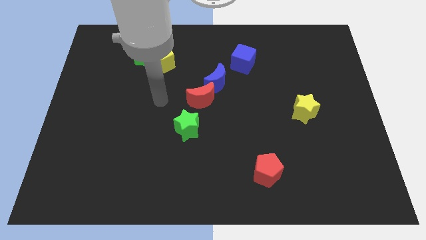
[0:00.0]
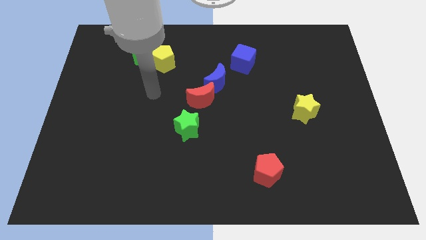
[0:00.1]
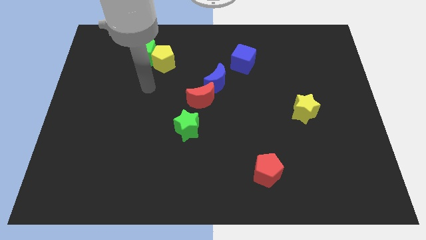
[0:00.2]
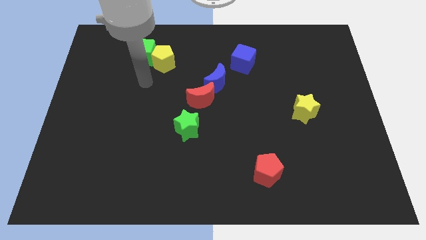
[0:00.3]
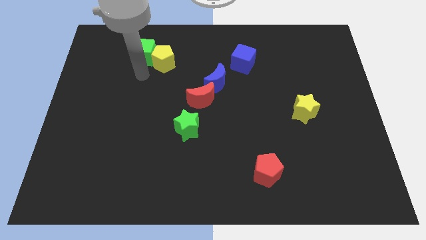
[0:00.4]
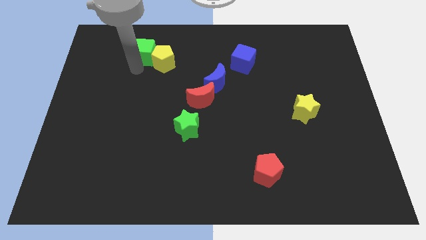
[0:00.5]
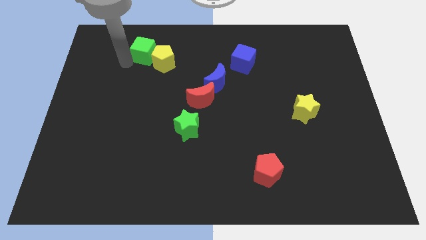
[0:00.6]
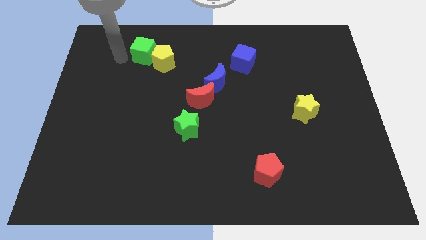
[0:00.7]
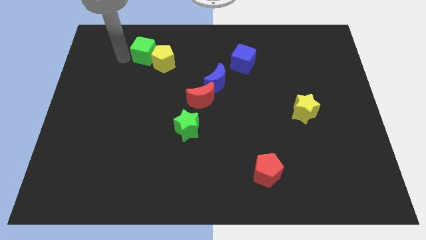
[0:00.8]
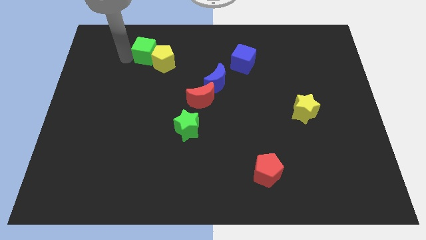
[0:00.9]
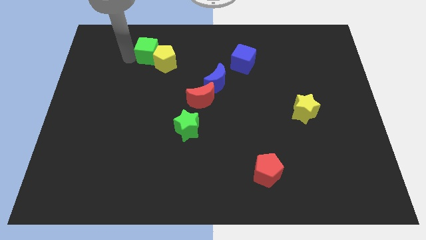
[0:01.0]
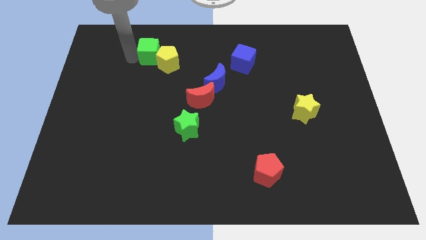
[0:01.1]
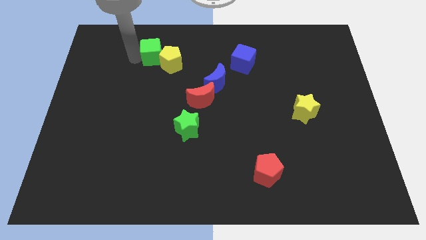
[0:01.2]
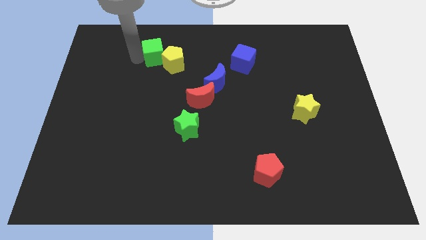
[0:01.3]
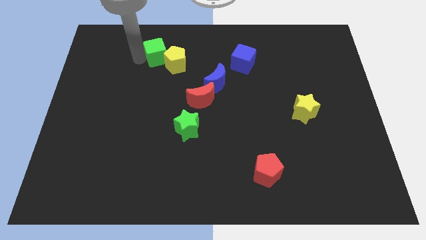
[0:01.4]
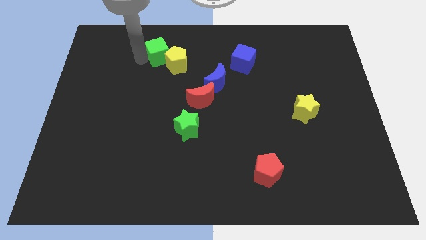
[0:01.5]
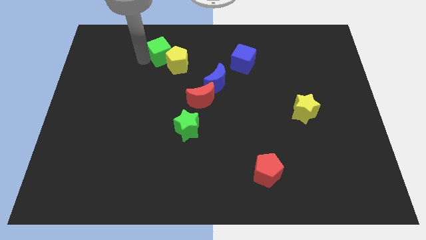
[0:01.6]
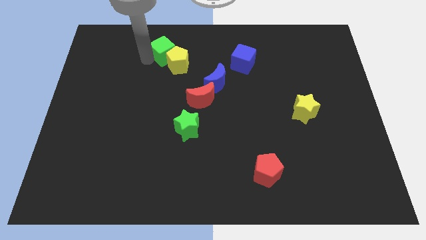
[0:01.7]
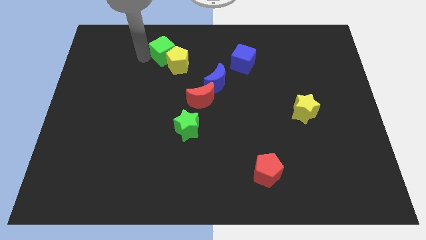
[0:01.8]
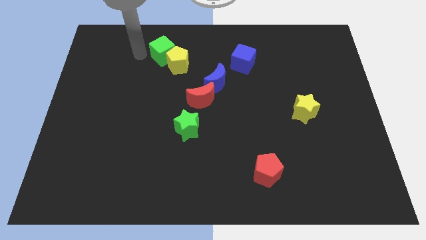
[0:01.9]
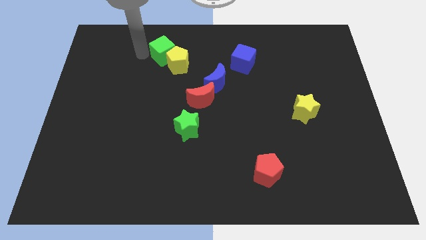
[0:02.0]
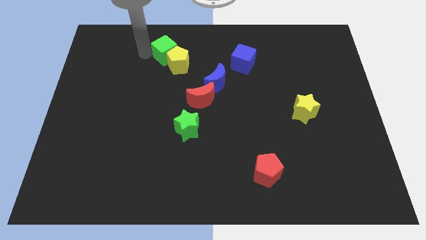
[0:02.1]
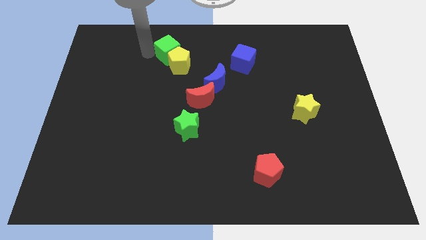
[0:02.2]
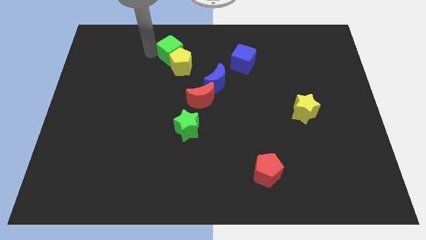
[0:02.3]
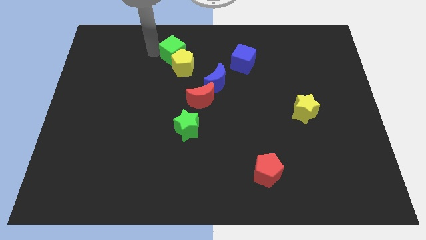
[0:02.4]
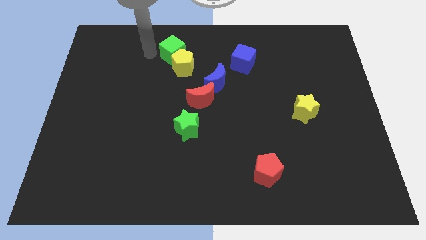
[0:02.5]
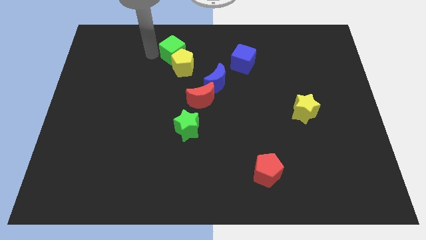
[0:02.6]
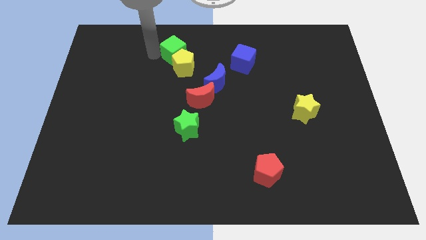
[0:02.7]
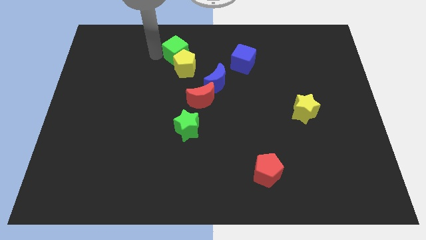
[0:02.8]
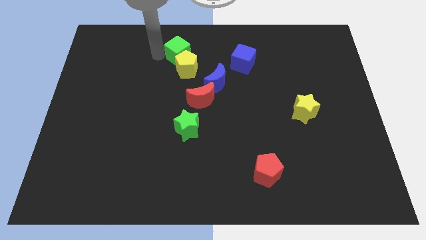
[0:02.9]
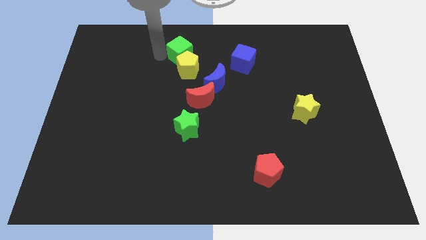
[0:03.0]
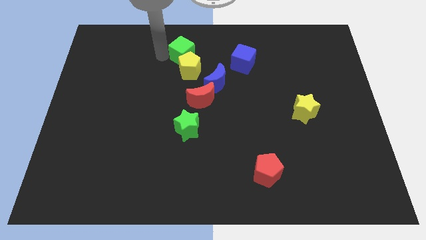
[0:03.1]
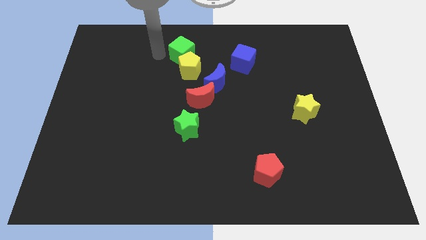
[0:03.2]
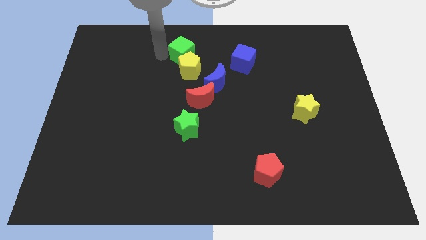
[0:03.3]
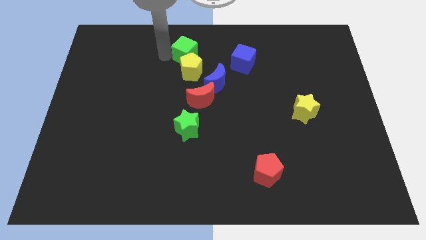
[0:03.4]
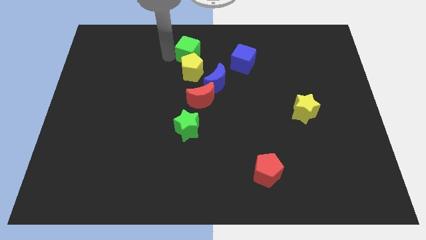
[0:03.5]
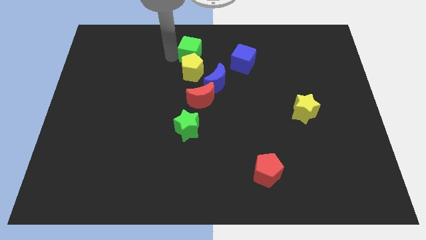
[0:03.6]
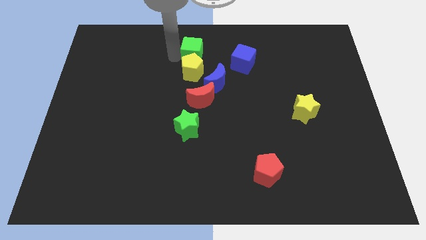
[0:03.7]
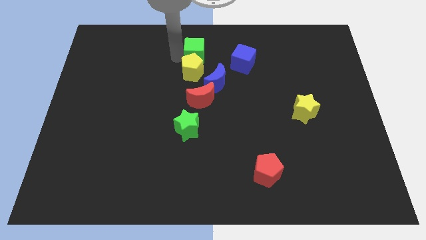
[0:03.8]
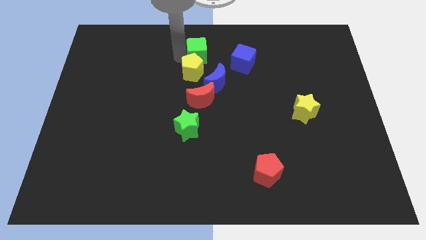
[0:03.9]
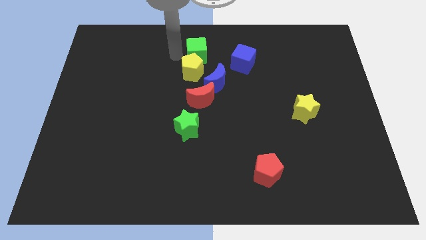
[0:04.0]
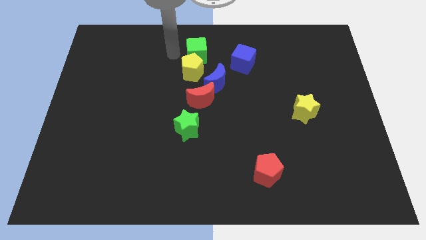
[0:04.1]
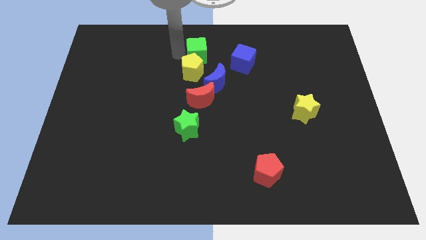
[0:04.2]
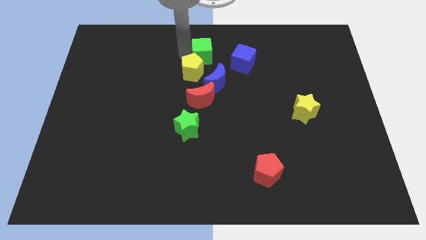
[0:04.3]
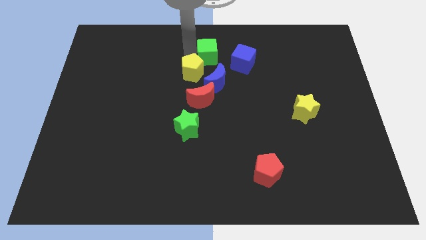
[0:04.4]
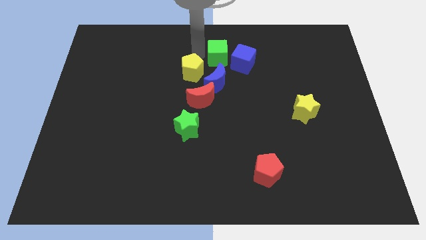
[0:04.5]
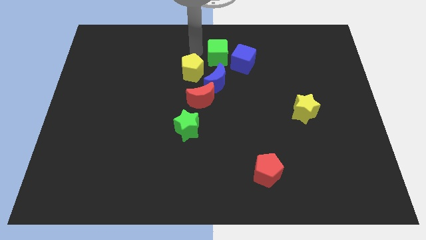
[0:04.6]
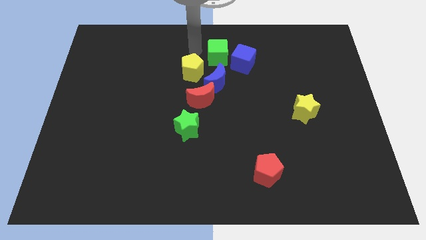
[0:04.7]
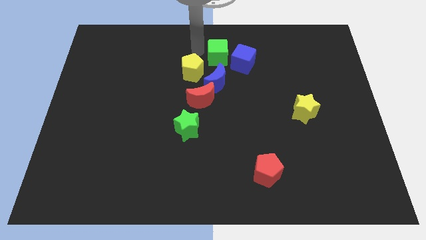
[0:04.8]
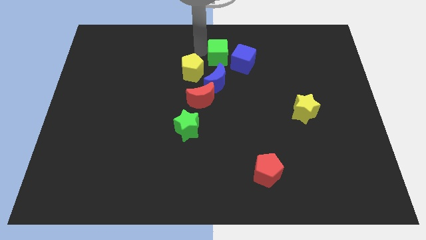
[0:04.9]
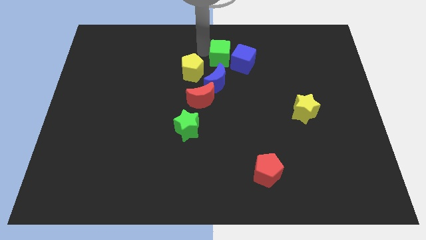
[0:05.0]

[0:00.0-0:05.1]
put the green cube close to the blue cube

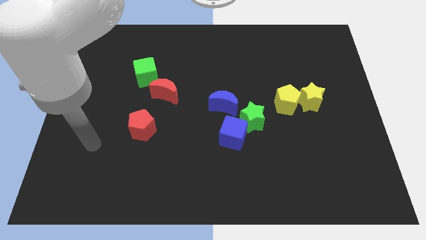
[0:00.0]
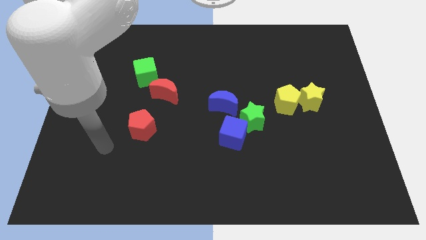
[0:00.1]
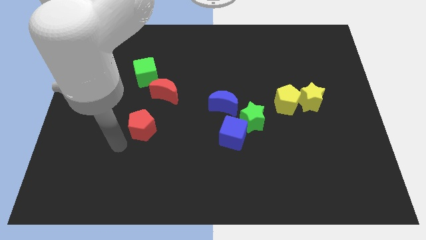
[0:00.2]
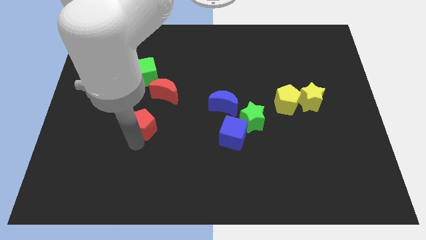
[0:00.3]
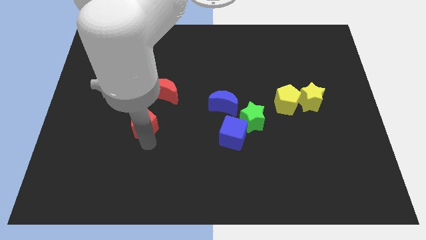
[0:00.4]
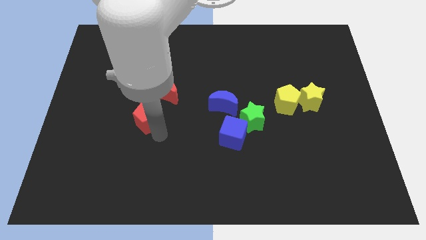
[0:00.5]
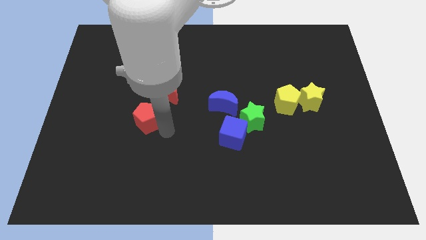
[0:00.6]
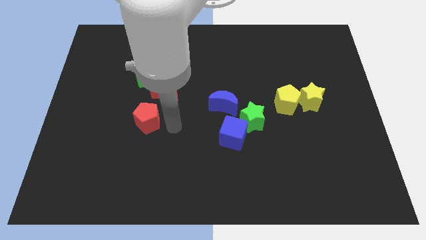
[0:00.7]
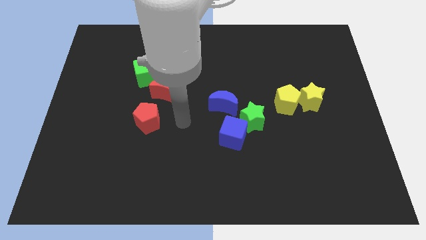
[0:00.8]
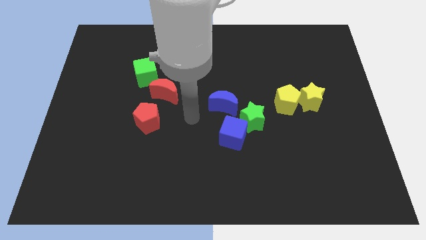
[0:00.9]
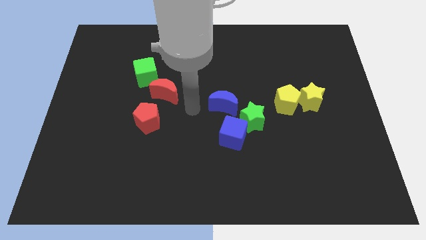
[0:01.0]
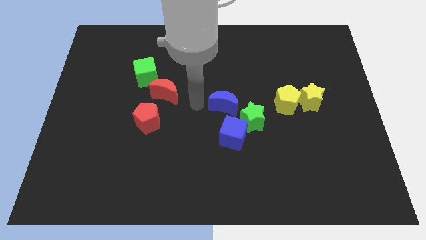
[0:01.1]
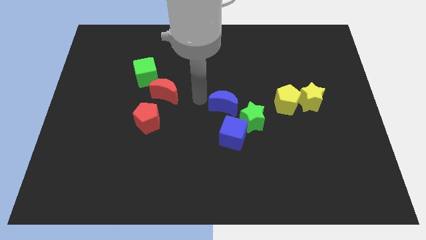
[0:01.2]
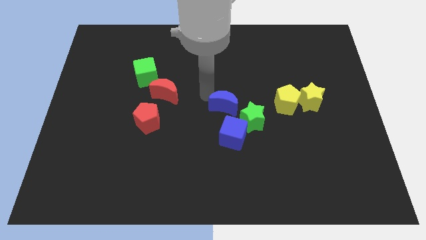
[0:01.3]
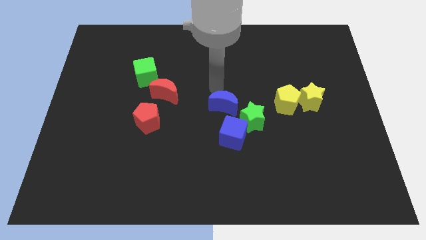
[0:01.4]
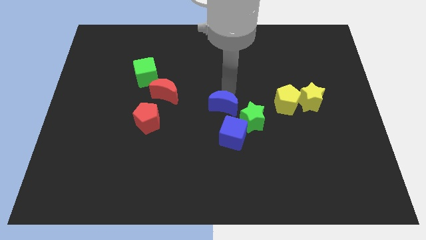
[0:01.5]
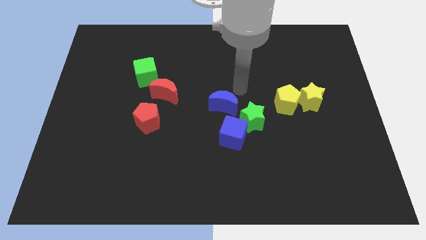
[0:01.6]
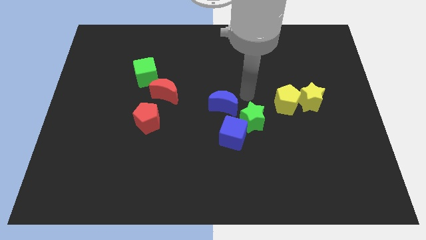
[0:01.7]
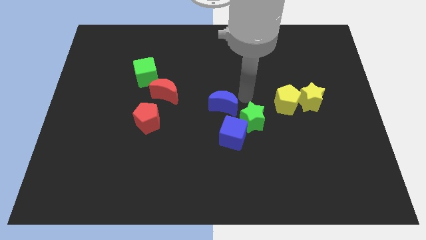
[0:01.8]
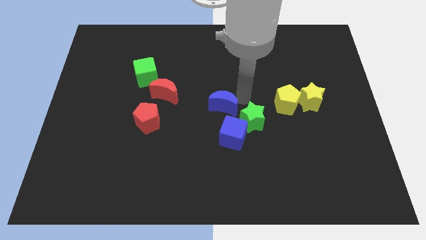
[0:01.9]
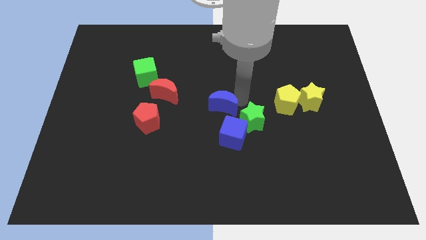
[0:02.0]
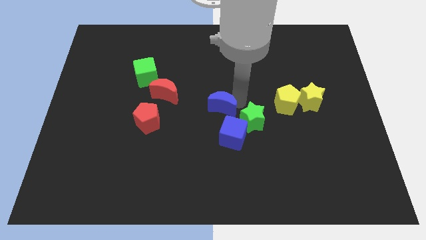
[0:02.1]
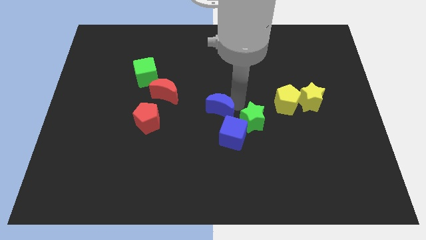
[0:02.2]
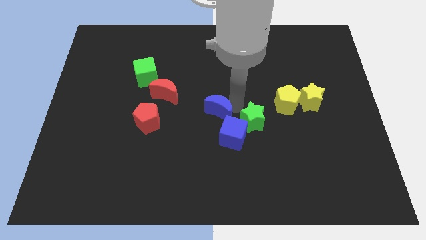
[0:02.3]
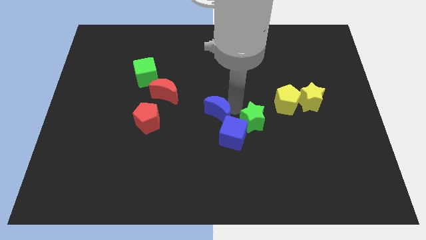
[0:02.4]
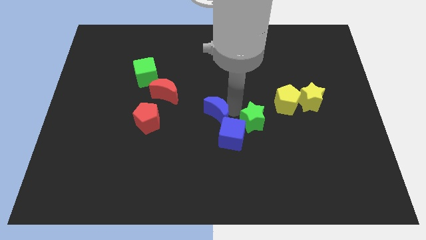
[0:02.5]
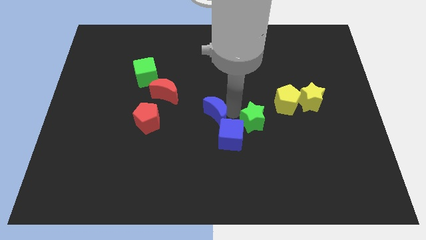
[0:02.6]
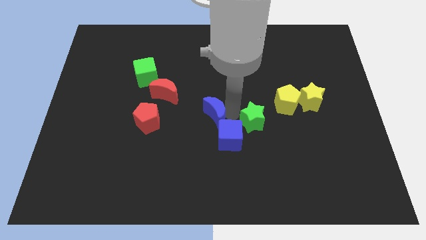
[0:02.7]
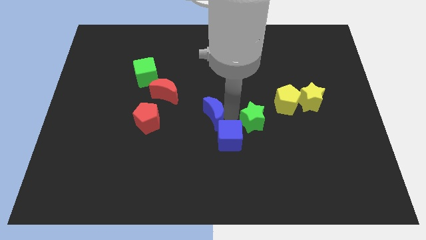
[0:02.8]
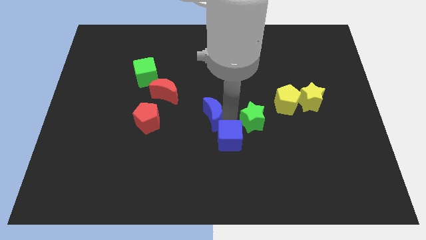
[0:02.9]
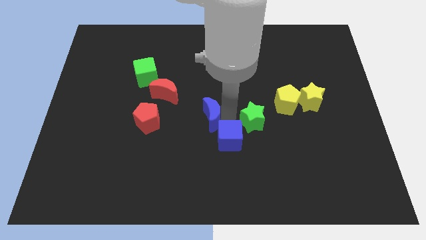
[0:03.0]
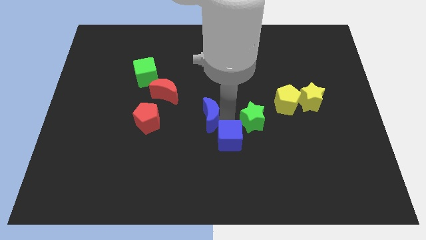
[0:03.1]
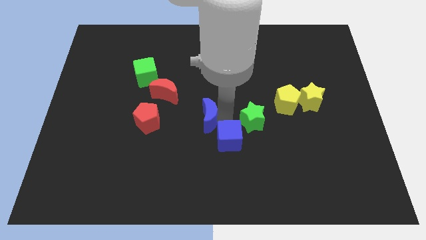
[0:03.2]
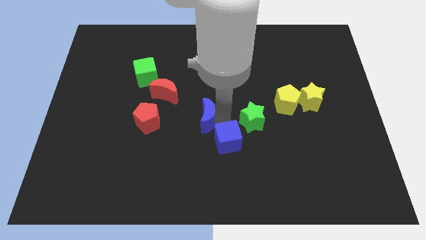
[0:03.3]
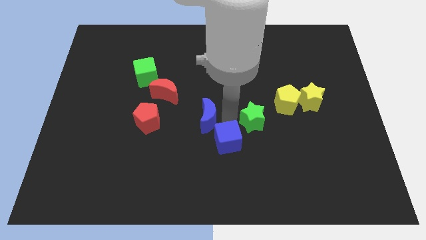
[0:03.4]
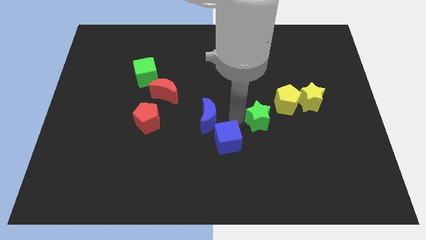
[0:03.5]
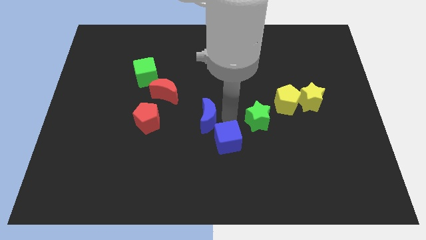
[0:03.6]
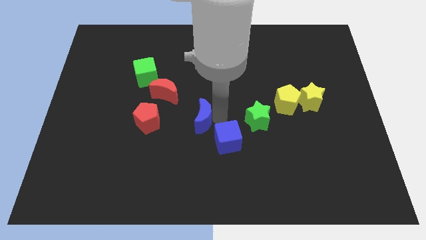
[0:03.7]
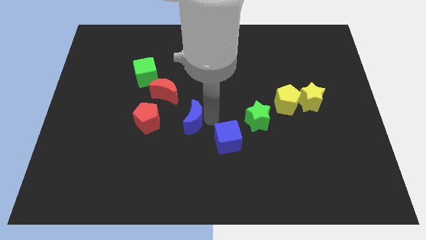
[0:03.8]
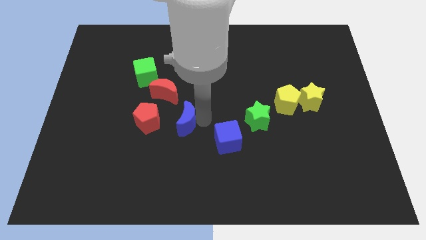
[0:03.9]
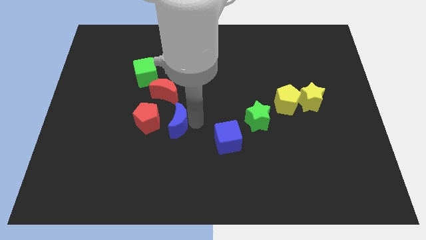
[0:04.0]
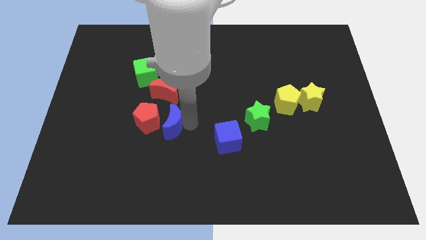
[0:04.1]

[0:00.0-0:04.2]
push the blue moon to the red pentagon
